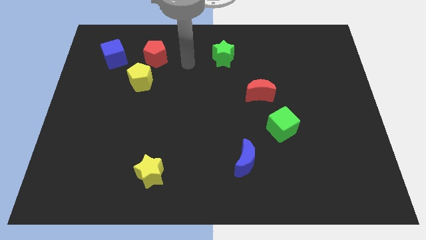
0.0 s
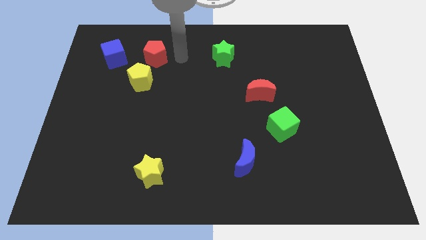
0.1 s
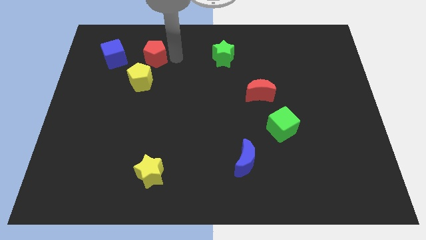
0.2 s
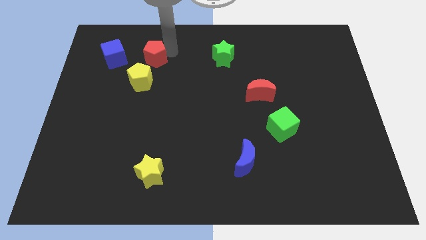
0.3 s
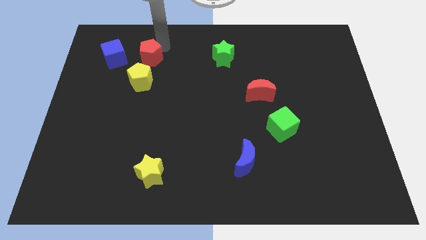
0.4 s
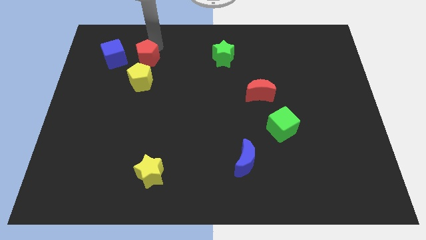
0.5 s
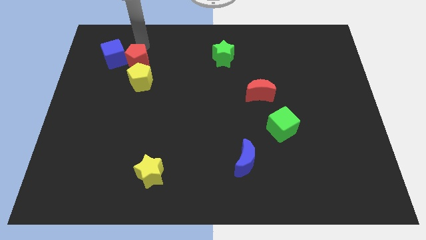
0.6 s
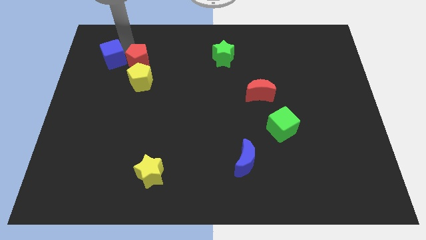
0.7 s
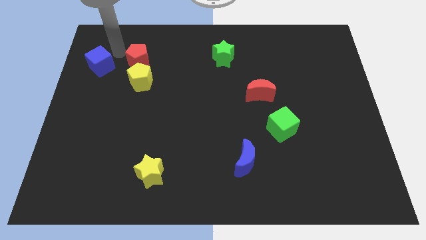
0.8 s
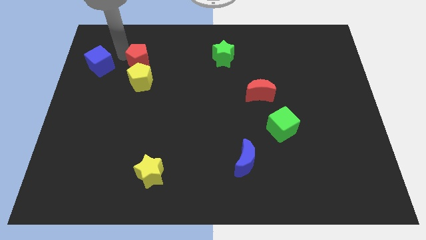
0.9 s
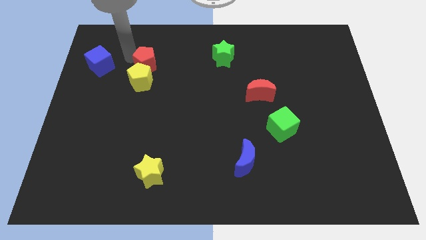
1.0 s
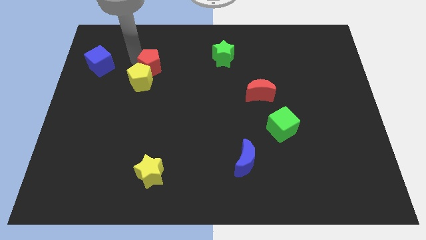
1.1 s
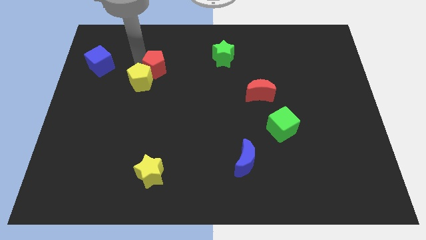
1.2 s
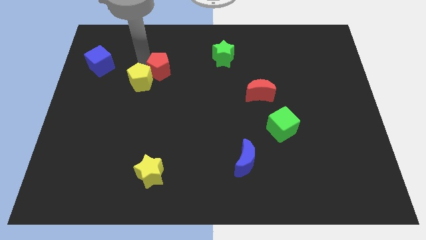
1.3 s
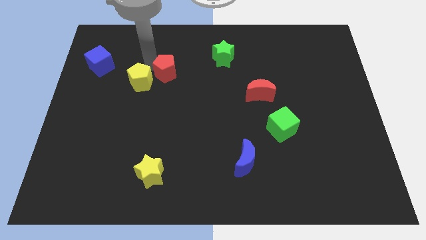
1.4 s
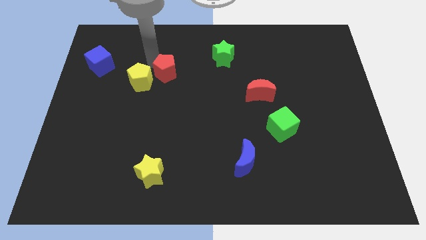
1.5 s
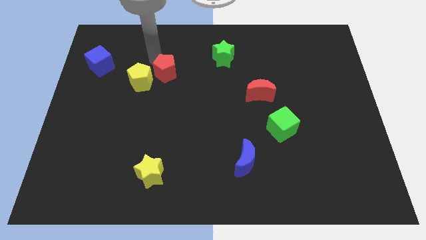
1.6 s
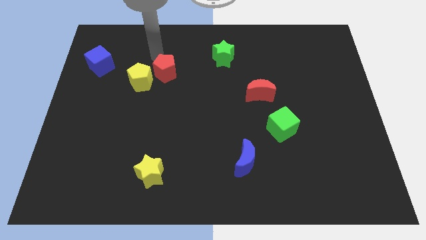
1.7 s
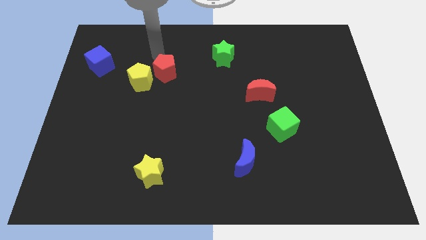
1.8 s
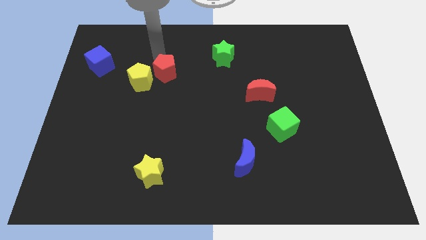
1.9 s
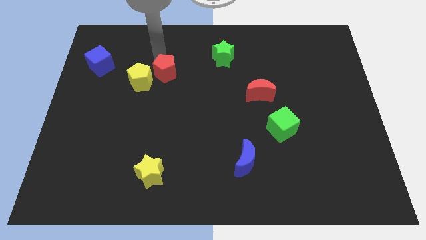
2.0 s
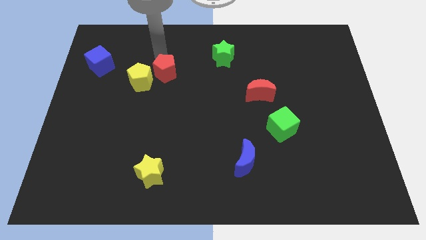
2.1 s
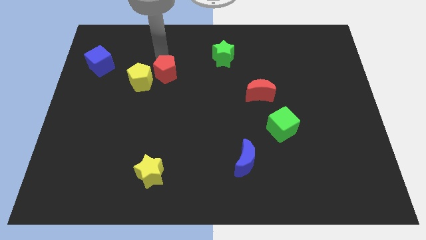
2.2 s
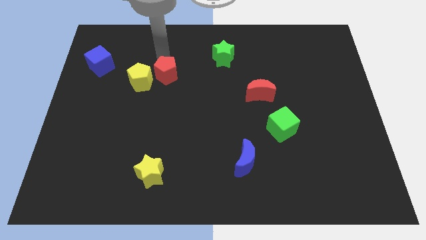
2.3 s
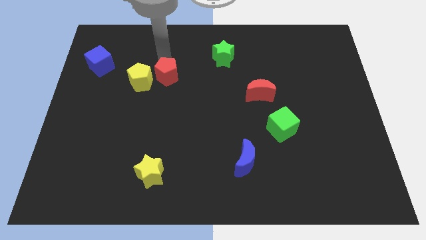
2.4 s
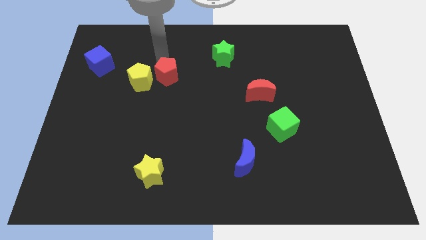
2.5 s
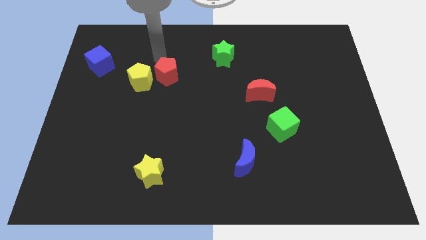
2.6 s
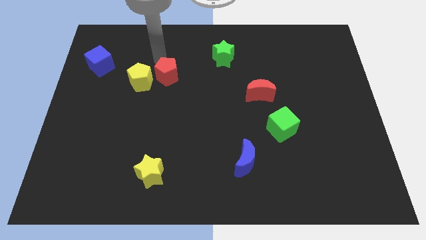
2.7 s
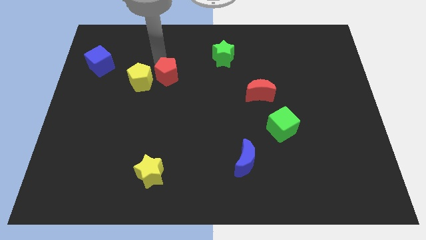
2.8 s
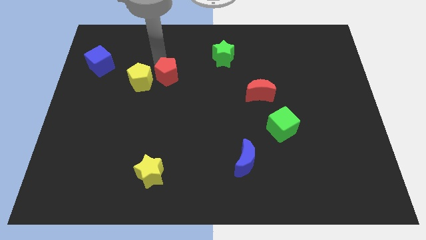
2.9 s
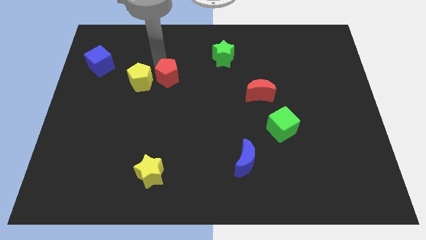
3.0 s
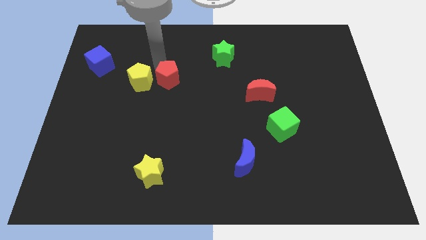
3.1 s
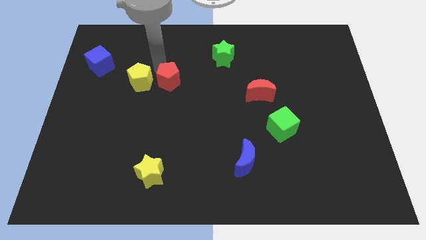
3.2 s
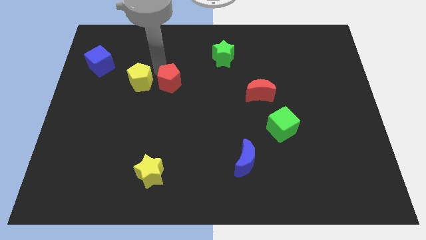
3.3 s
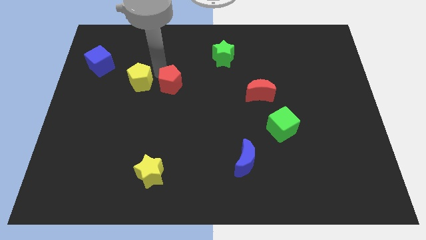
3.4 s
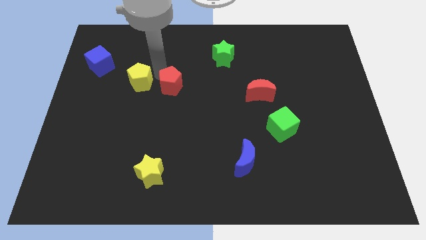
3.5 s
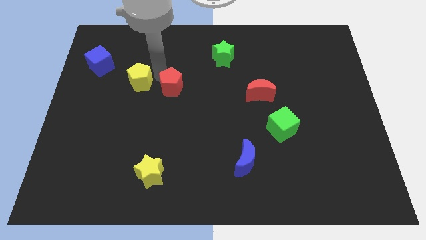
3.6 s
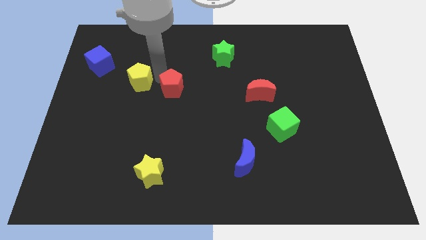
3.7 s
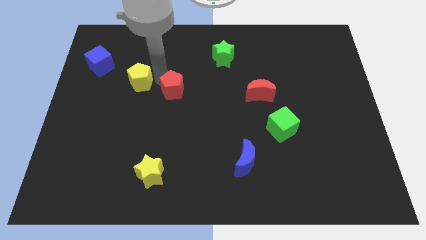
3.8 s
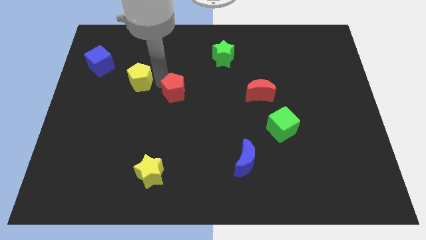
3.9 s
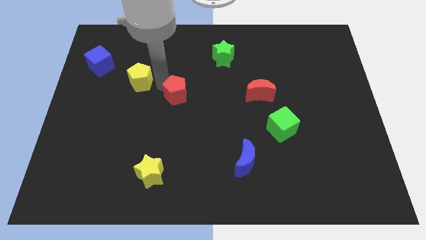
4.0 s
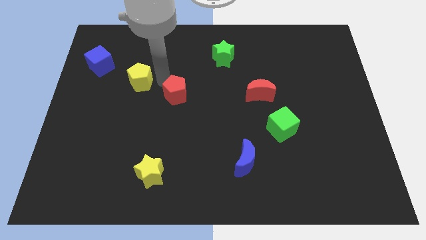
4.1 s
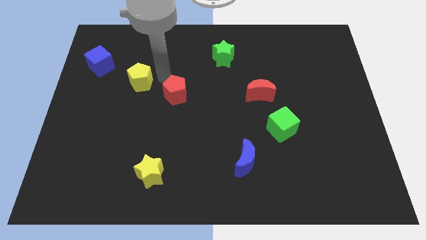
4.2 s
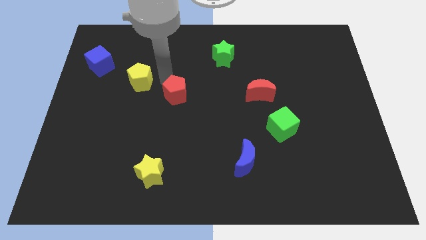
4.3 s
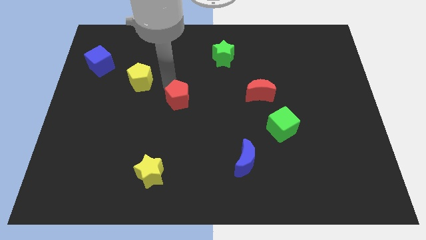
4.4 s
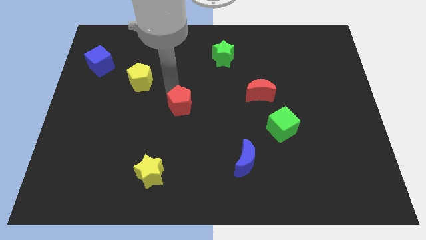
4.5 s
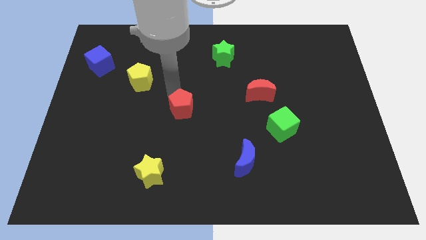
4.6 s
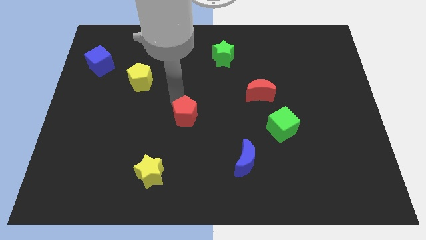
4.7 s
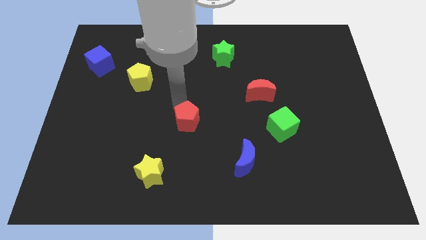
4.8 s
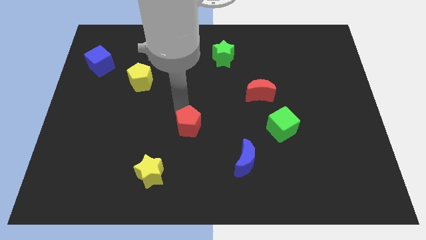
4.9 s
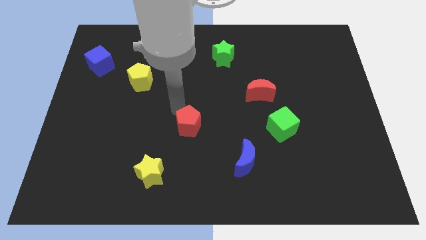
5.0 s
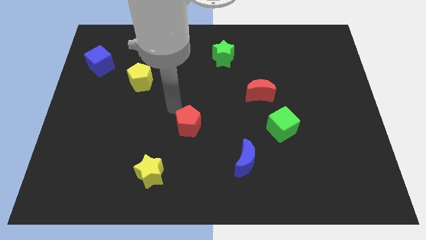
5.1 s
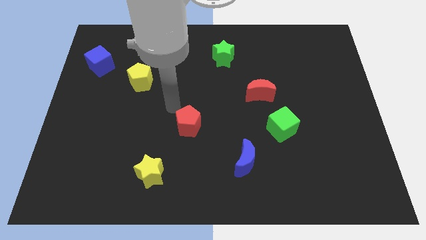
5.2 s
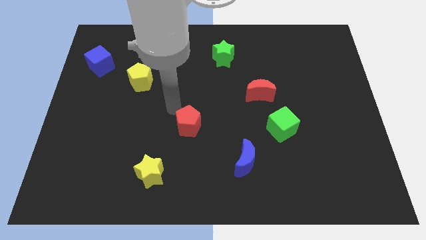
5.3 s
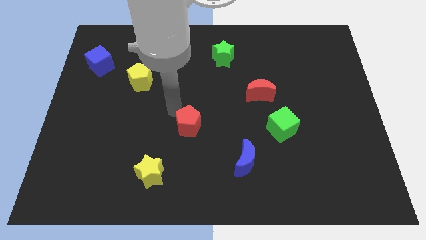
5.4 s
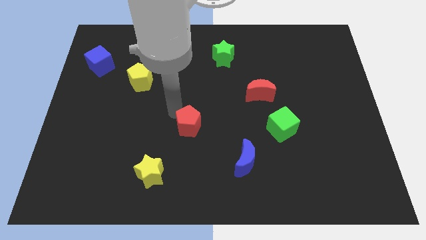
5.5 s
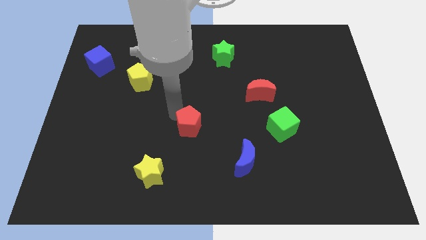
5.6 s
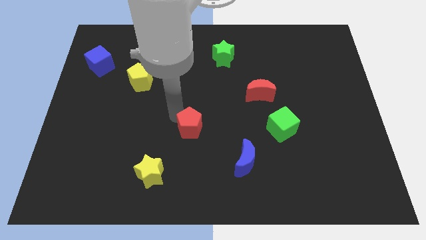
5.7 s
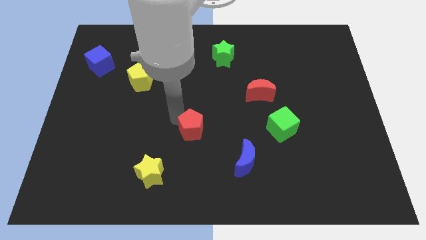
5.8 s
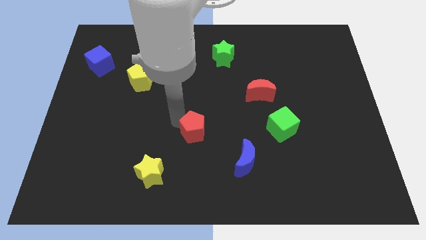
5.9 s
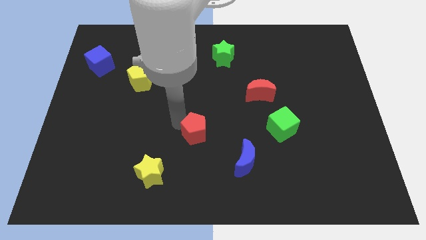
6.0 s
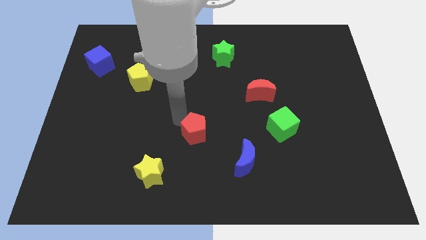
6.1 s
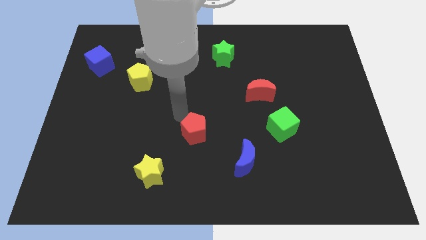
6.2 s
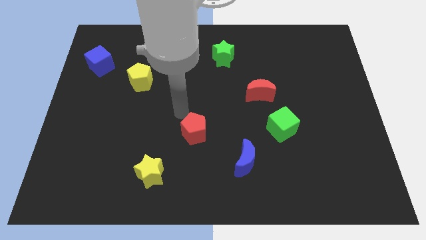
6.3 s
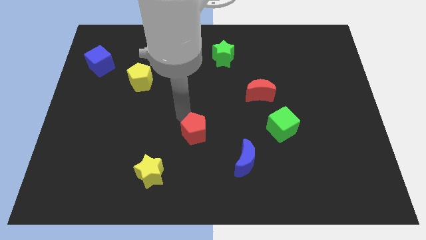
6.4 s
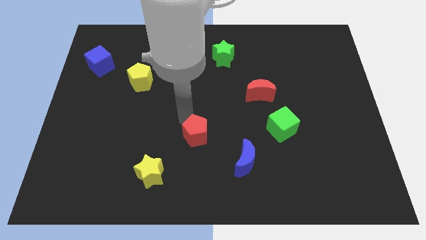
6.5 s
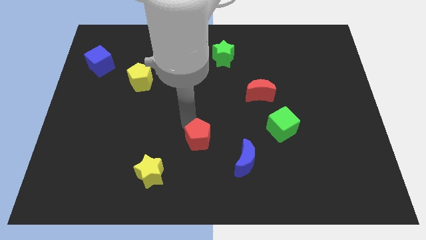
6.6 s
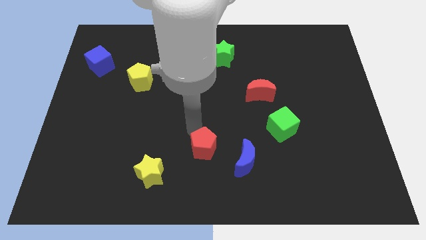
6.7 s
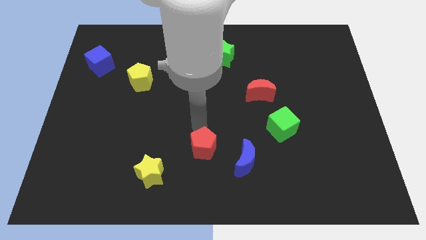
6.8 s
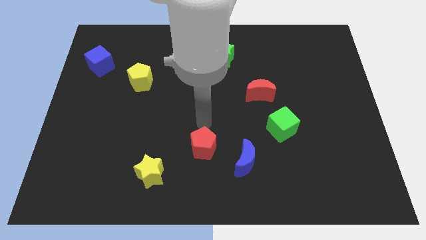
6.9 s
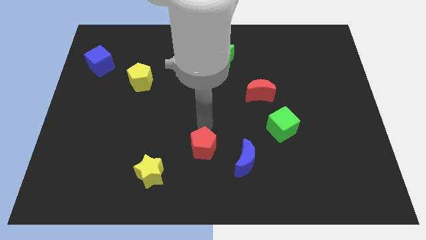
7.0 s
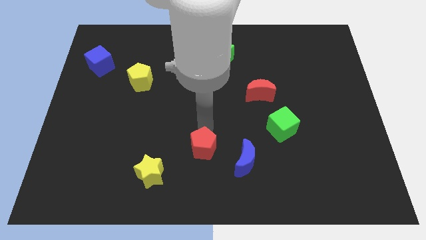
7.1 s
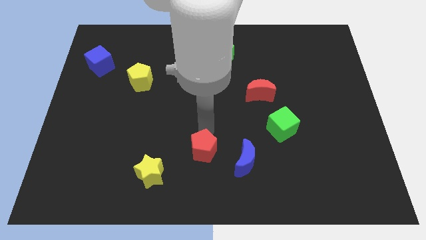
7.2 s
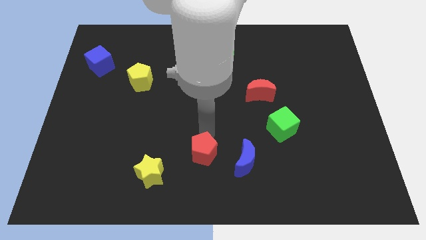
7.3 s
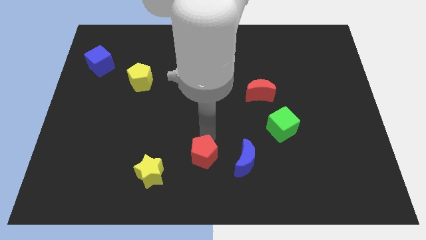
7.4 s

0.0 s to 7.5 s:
slide the red pentagon right of the yellow star
